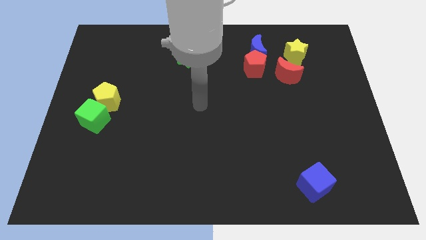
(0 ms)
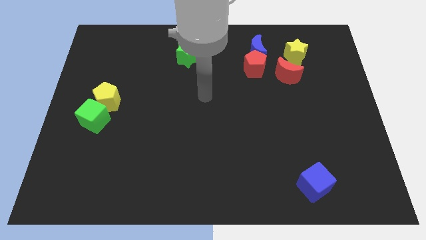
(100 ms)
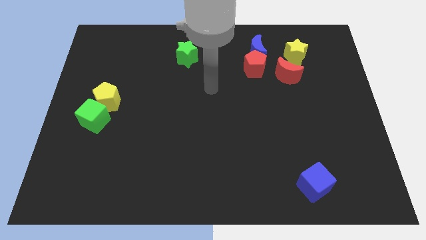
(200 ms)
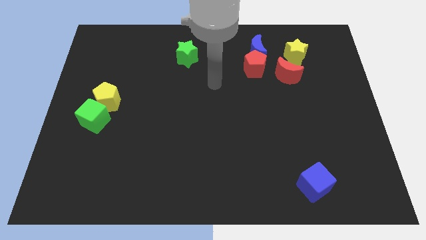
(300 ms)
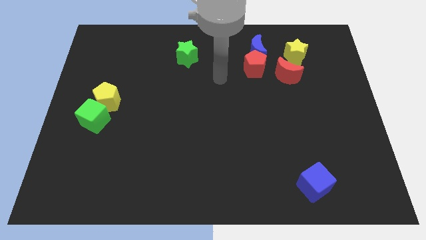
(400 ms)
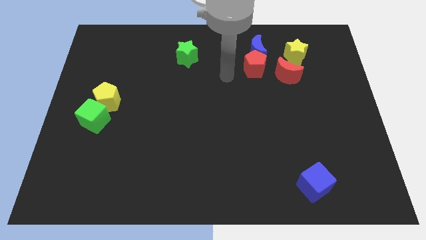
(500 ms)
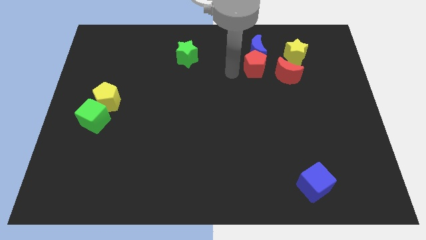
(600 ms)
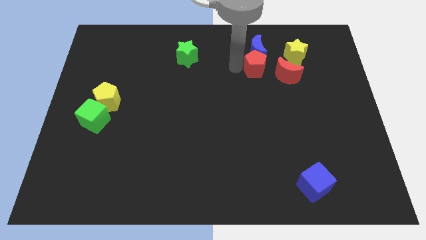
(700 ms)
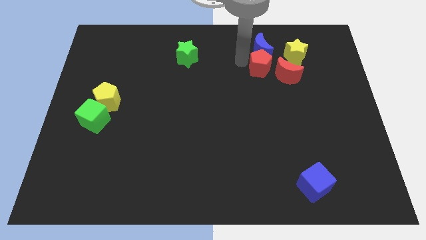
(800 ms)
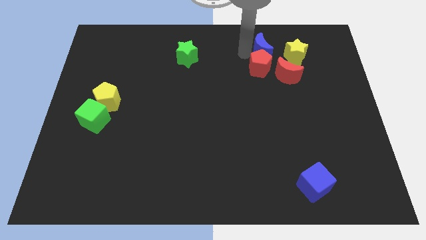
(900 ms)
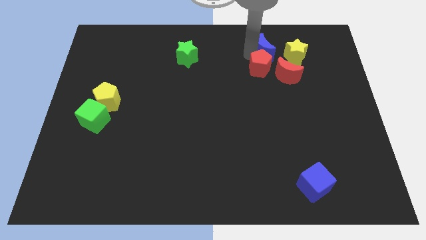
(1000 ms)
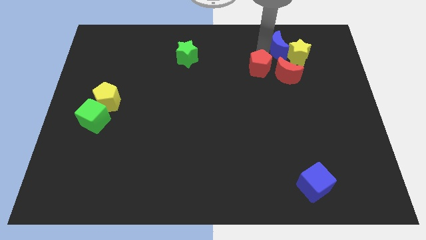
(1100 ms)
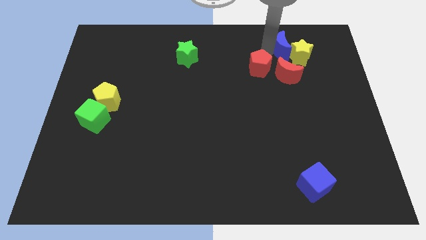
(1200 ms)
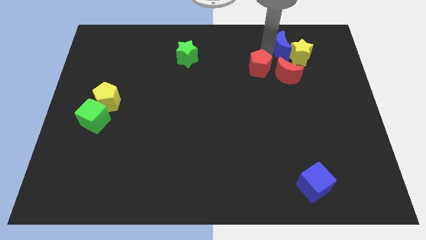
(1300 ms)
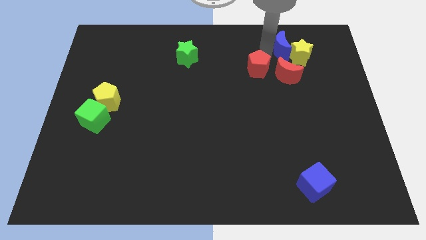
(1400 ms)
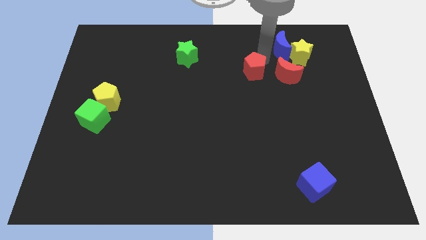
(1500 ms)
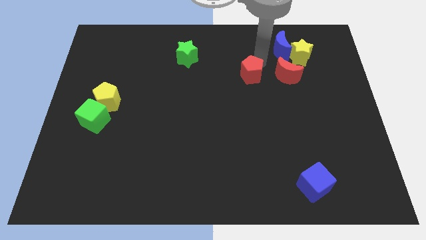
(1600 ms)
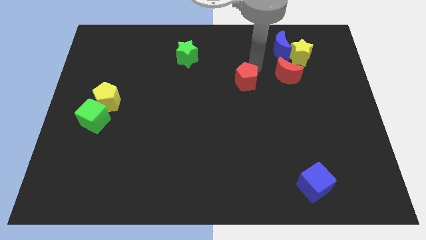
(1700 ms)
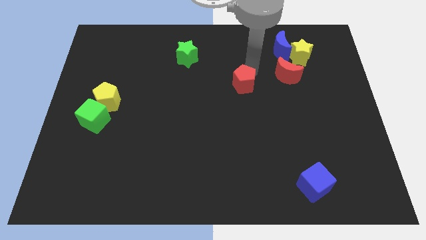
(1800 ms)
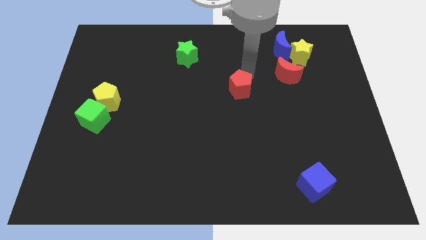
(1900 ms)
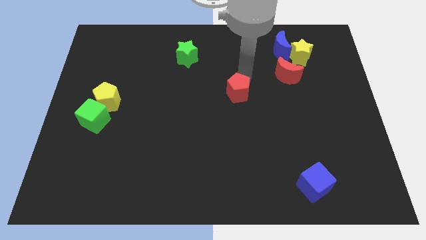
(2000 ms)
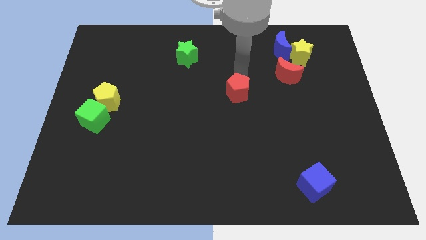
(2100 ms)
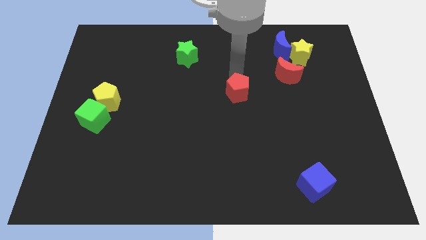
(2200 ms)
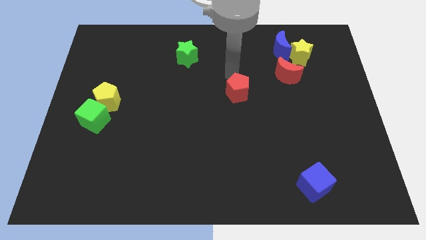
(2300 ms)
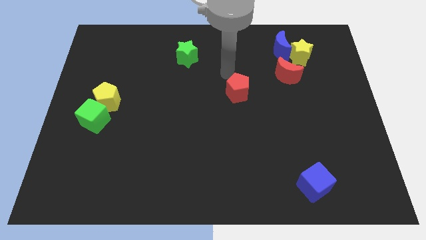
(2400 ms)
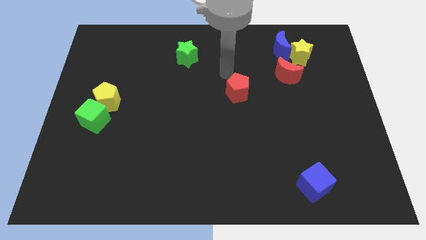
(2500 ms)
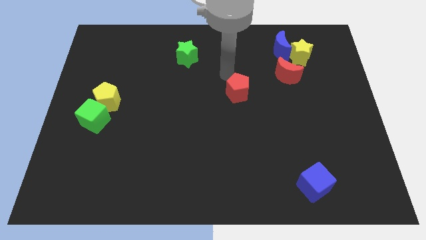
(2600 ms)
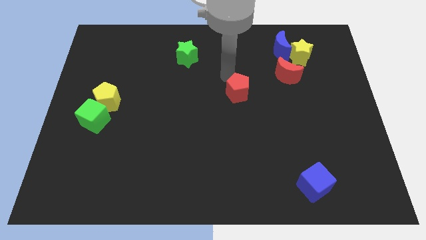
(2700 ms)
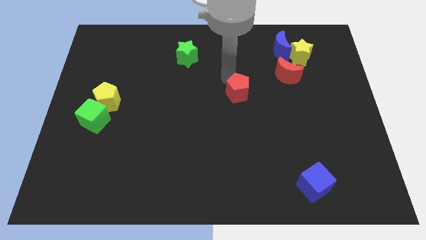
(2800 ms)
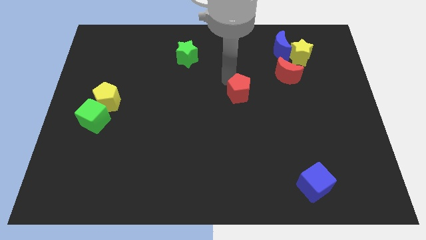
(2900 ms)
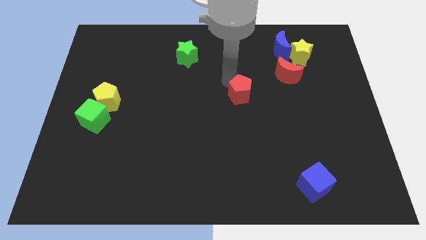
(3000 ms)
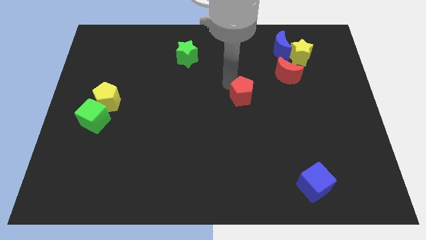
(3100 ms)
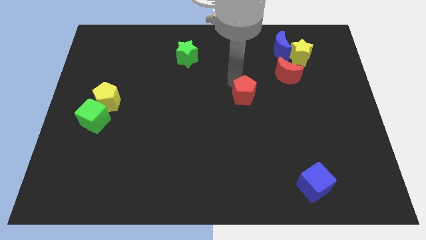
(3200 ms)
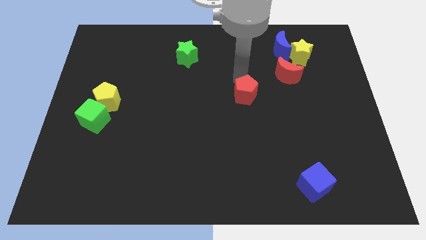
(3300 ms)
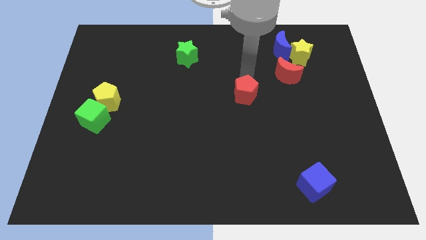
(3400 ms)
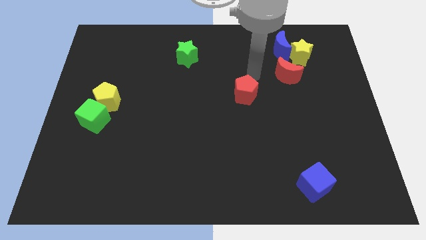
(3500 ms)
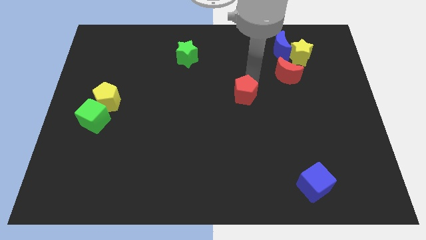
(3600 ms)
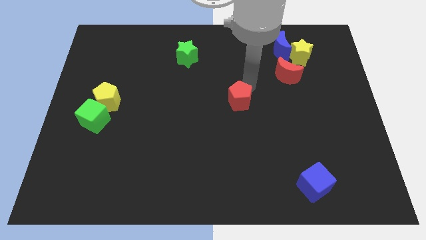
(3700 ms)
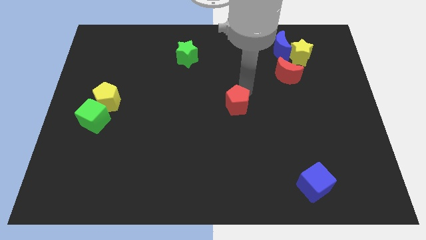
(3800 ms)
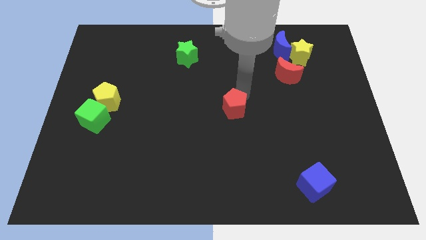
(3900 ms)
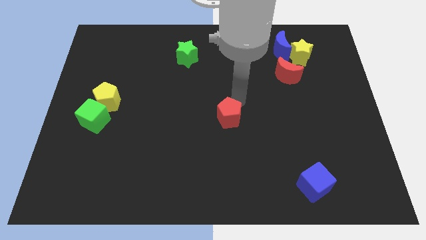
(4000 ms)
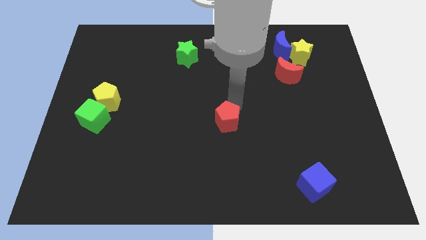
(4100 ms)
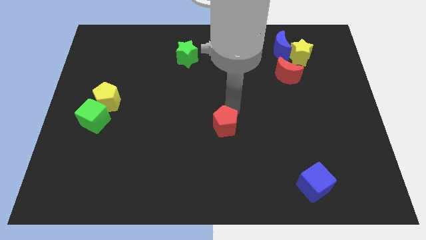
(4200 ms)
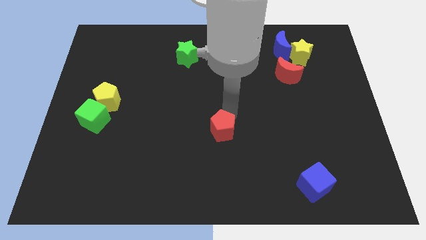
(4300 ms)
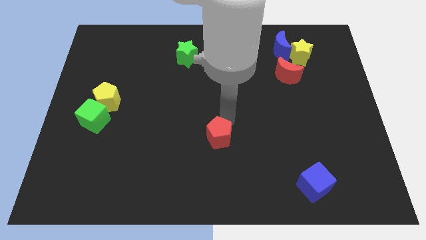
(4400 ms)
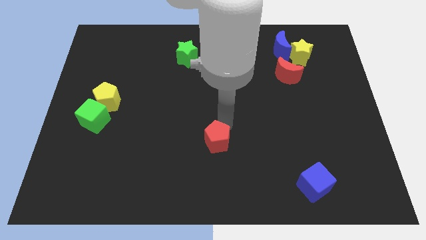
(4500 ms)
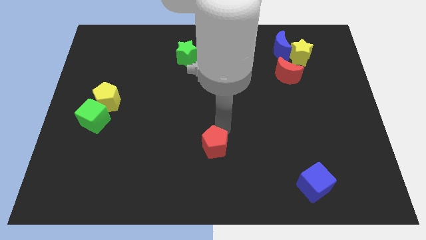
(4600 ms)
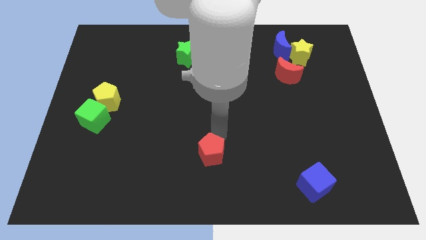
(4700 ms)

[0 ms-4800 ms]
move the red pentagon to the bottom side

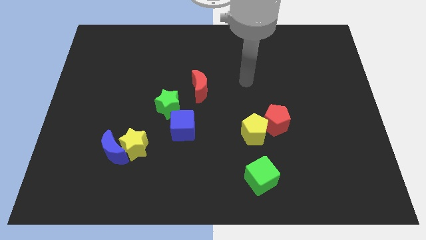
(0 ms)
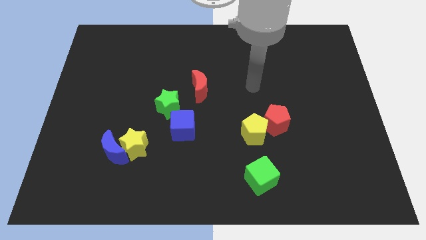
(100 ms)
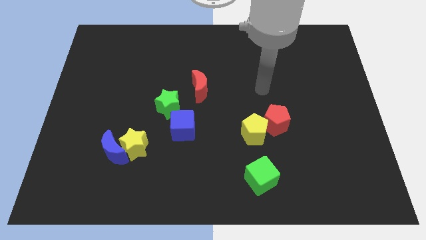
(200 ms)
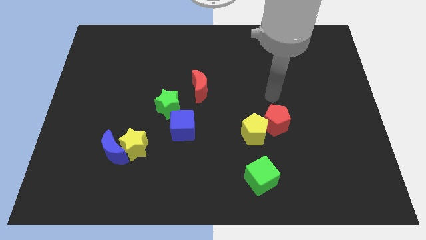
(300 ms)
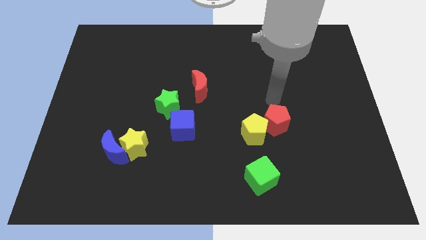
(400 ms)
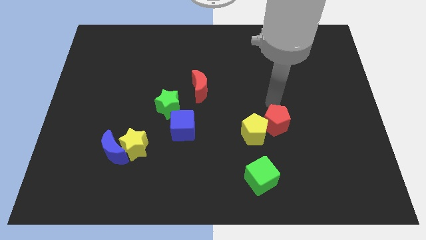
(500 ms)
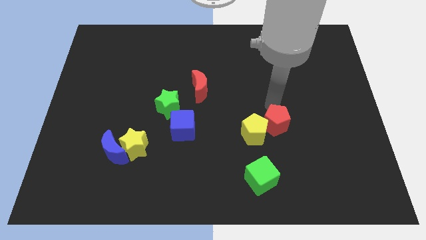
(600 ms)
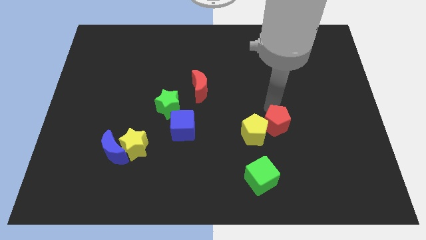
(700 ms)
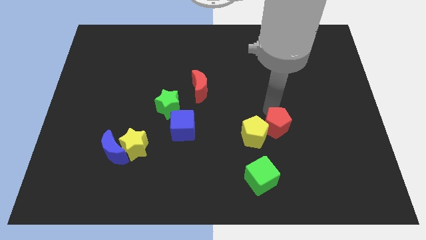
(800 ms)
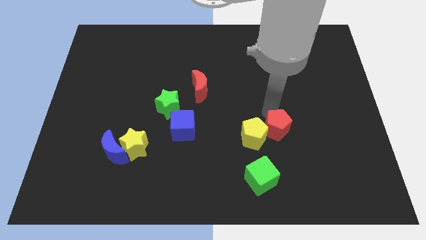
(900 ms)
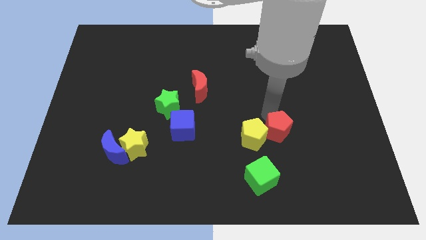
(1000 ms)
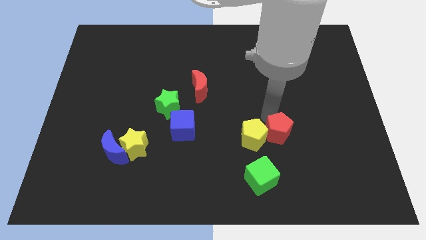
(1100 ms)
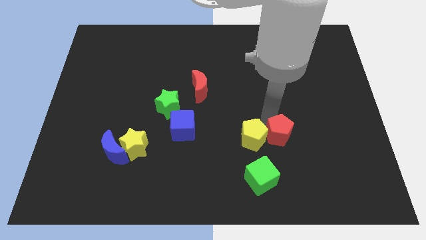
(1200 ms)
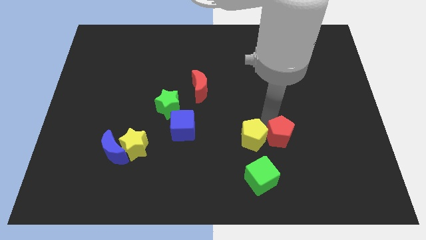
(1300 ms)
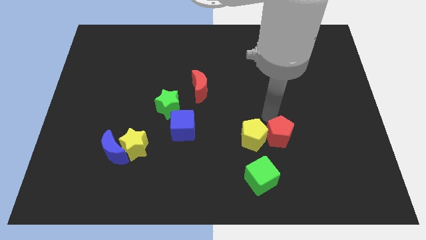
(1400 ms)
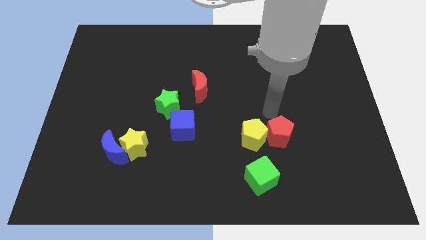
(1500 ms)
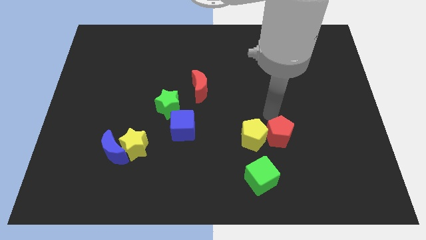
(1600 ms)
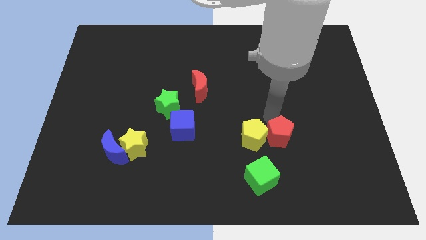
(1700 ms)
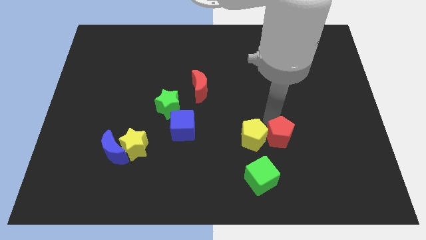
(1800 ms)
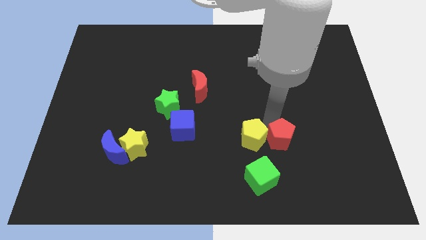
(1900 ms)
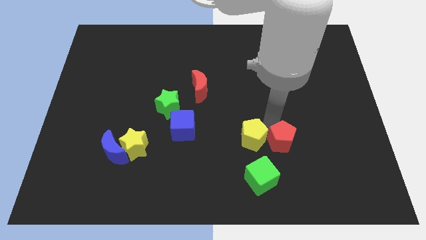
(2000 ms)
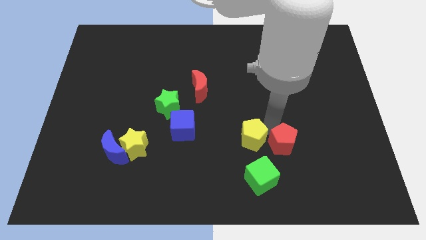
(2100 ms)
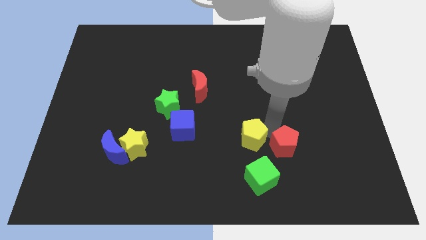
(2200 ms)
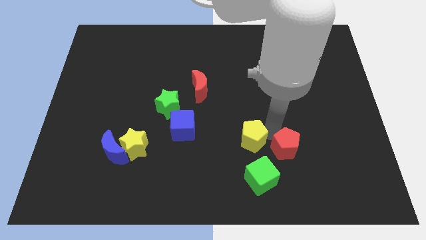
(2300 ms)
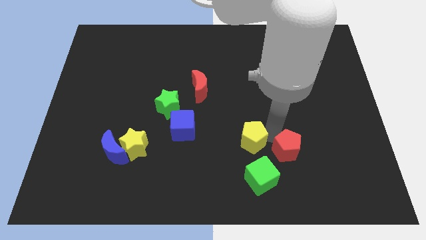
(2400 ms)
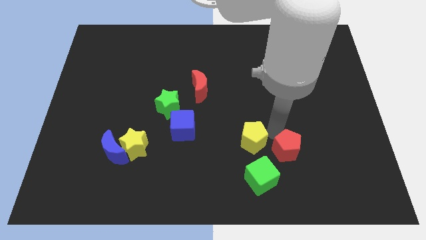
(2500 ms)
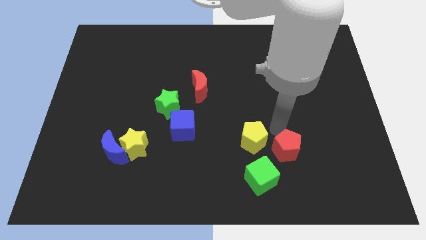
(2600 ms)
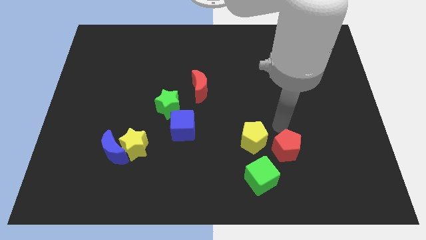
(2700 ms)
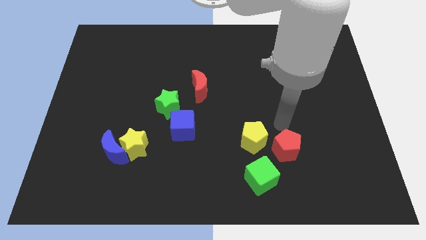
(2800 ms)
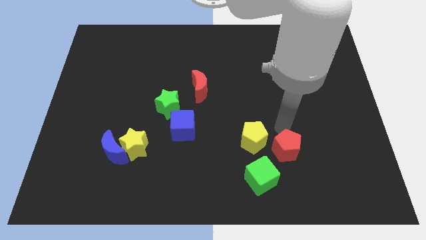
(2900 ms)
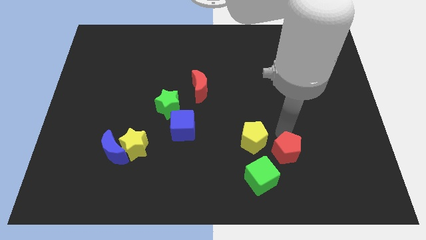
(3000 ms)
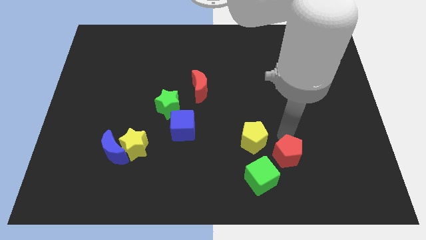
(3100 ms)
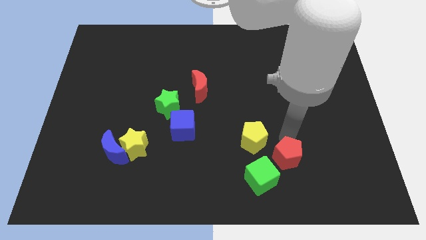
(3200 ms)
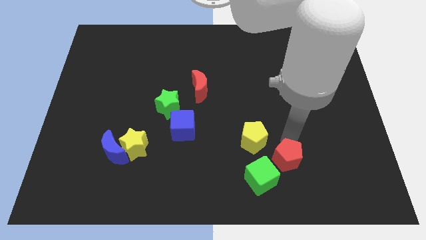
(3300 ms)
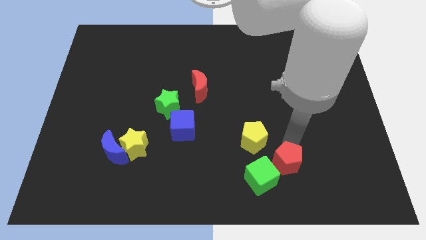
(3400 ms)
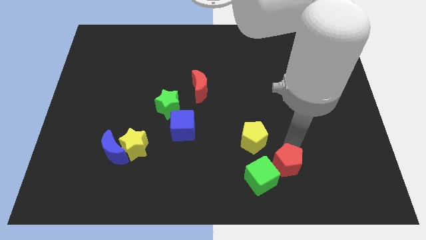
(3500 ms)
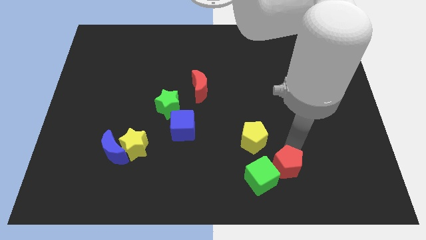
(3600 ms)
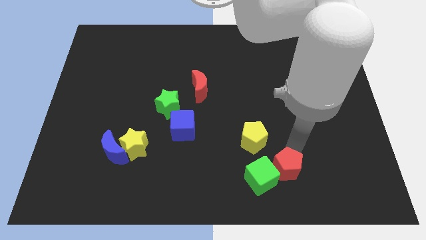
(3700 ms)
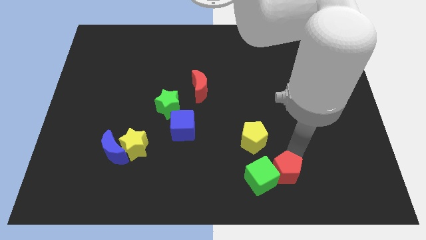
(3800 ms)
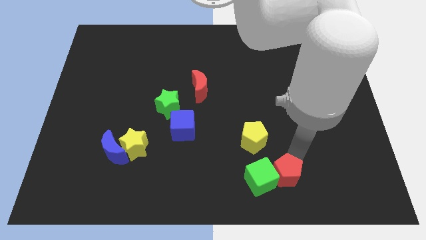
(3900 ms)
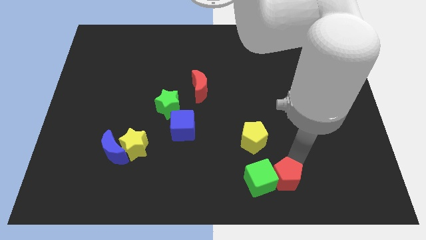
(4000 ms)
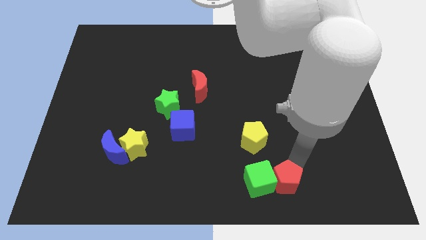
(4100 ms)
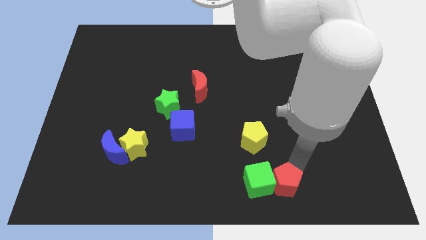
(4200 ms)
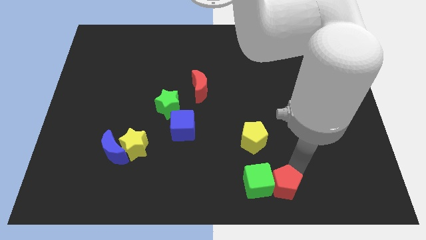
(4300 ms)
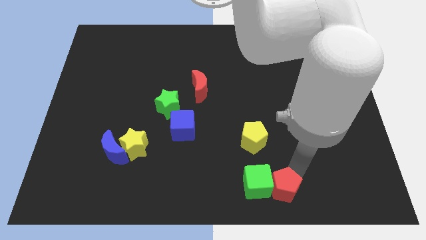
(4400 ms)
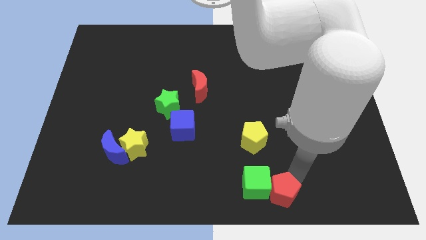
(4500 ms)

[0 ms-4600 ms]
put the red pentagon to the bottom side
